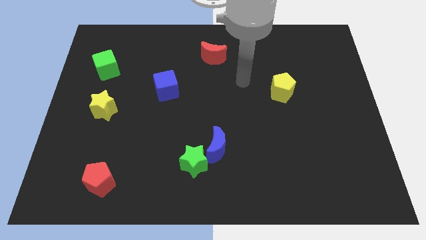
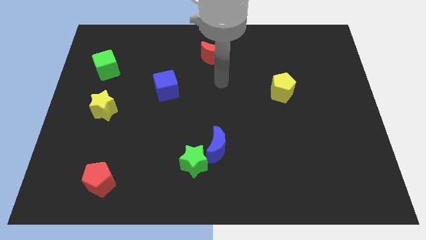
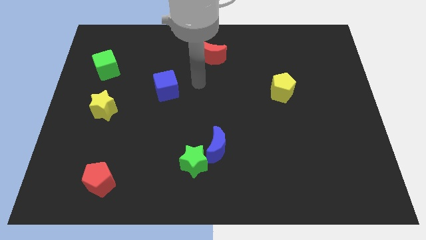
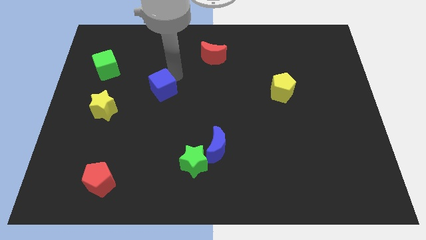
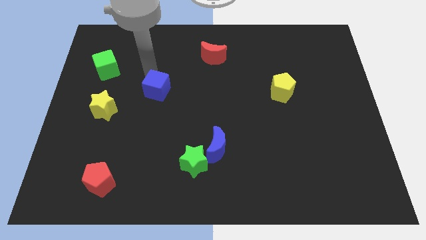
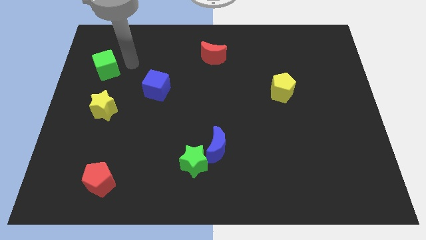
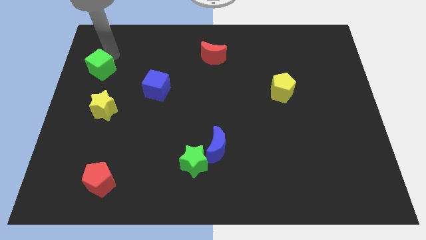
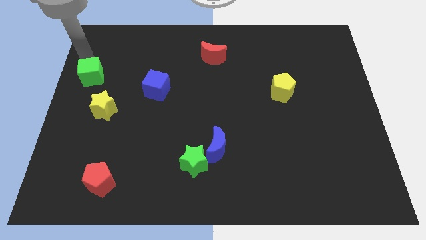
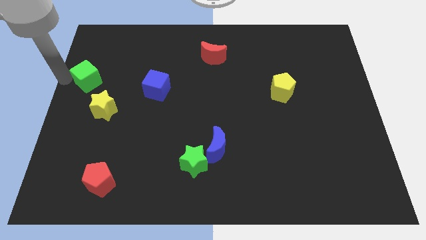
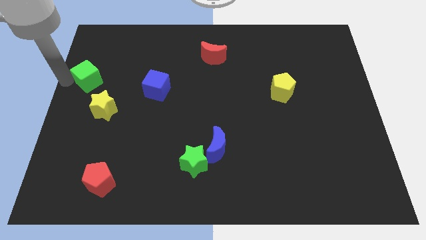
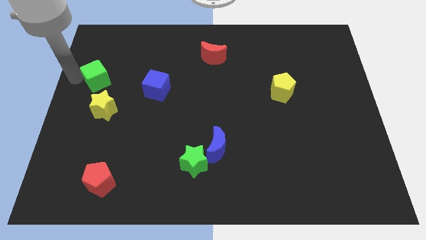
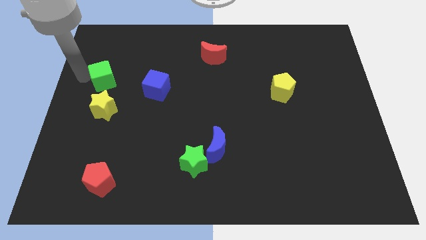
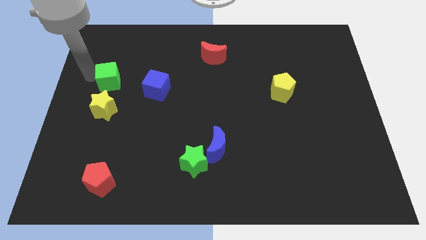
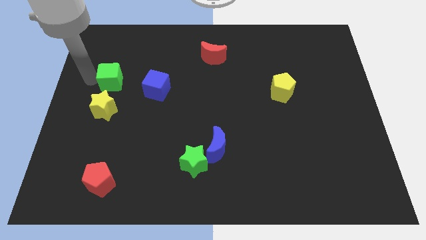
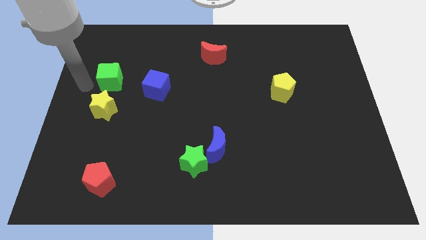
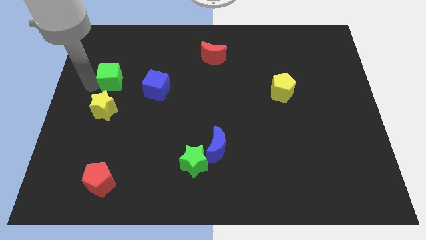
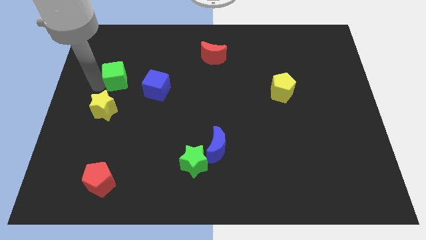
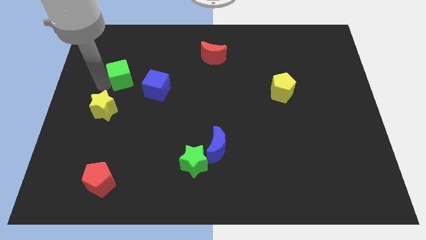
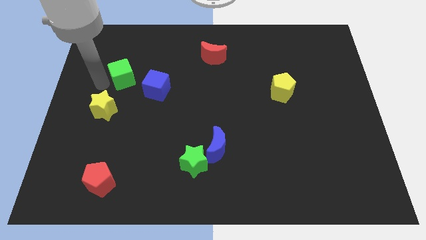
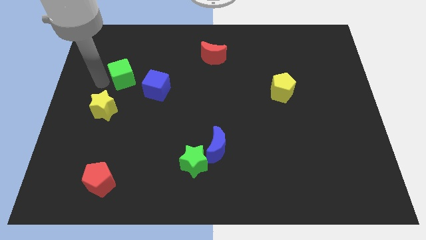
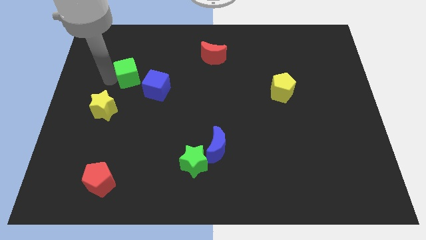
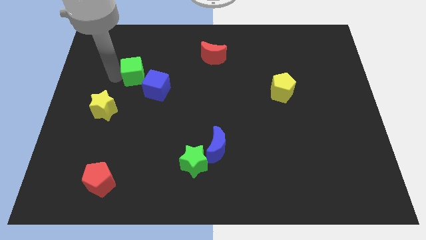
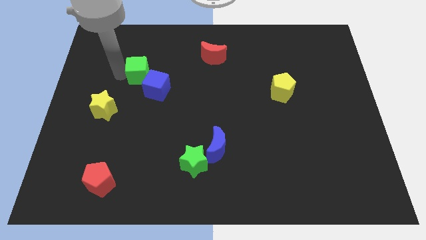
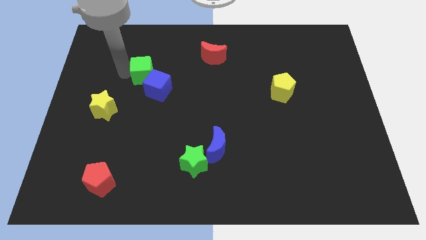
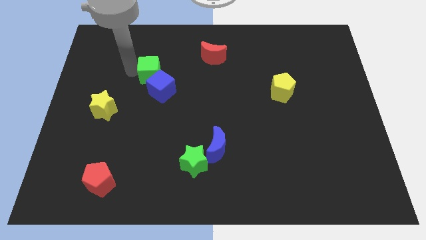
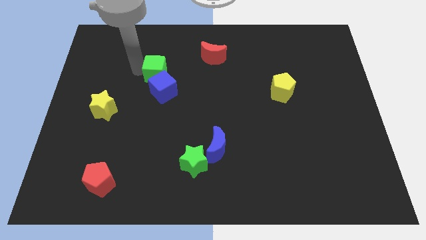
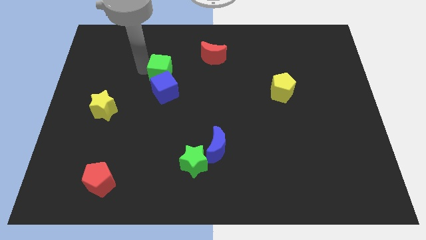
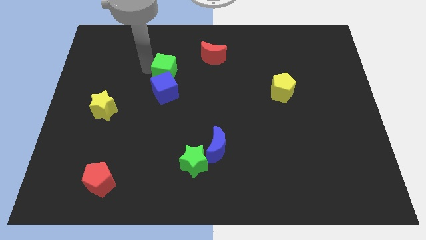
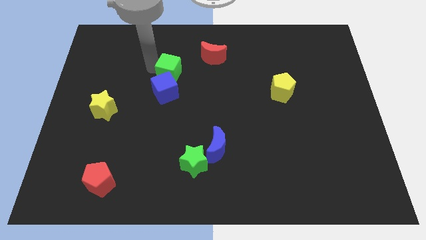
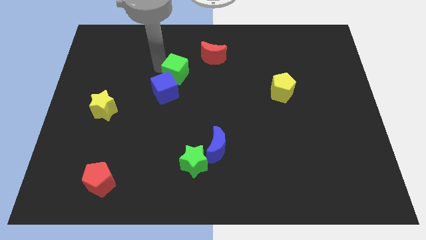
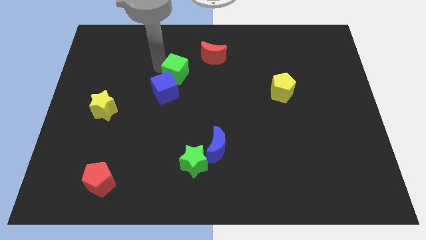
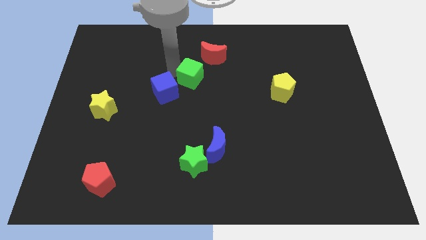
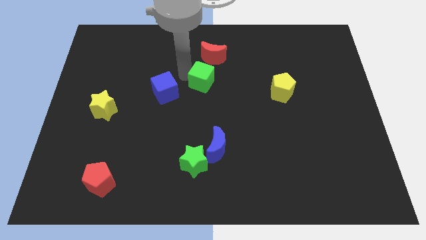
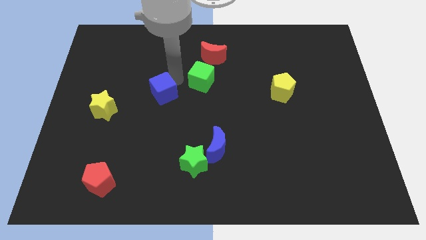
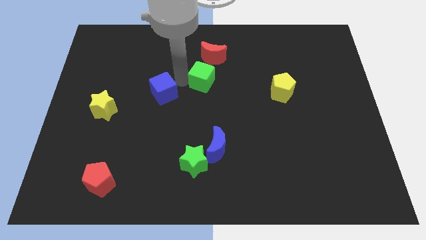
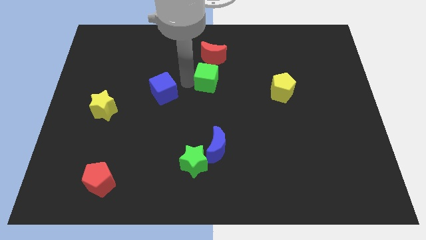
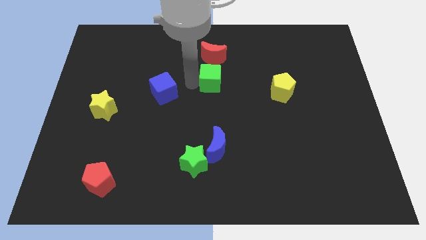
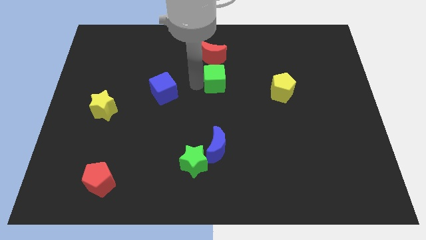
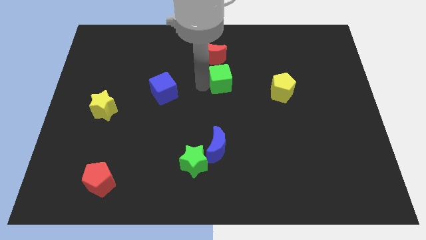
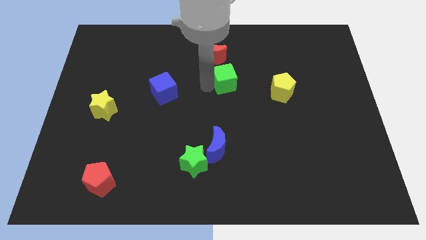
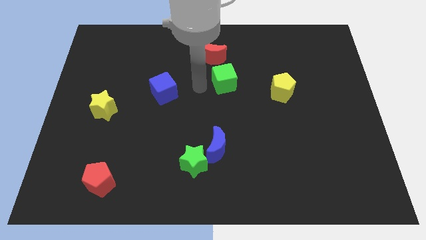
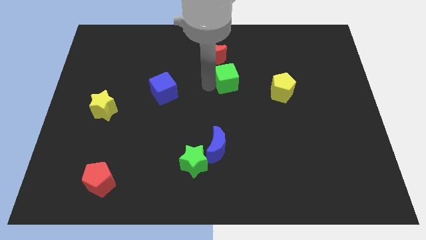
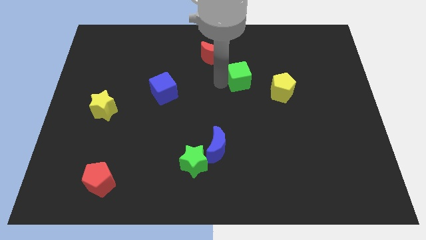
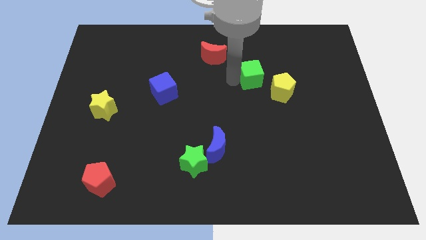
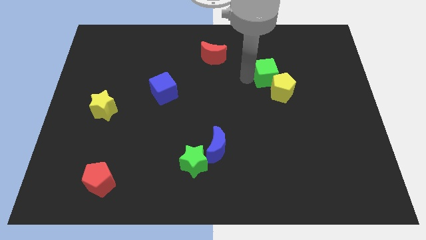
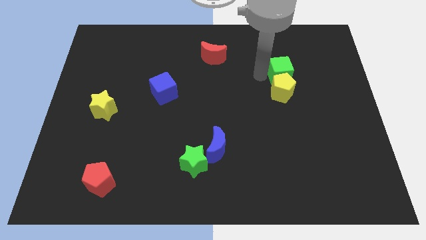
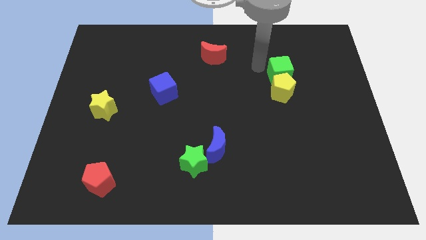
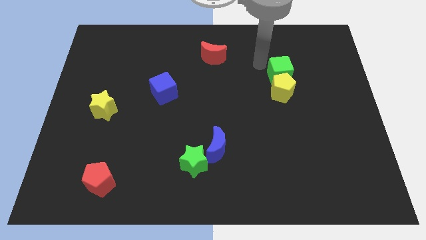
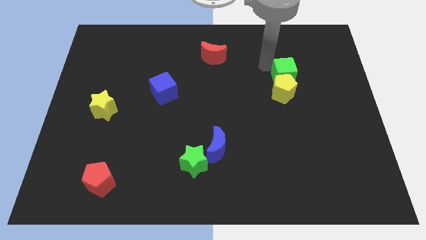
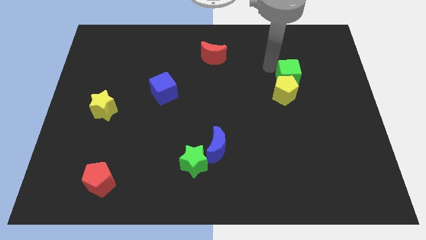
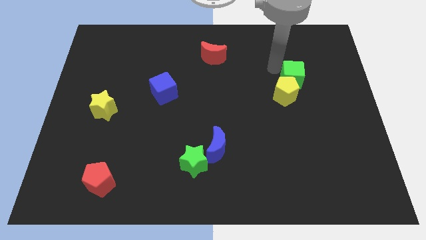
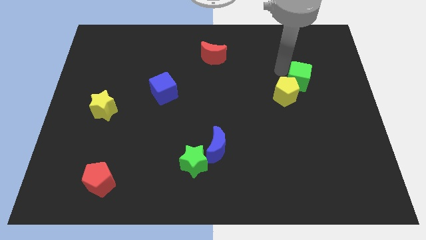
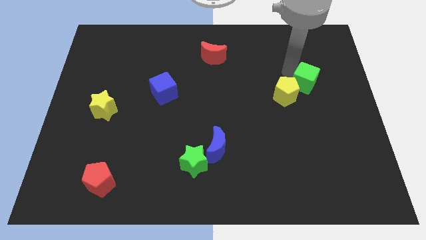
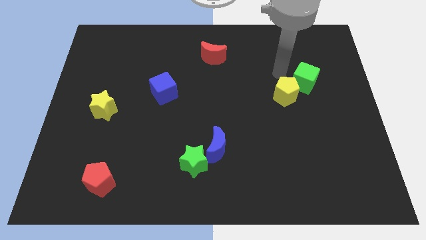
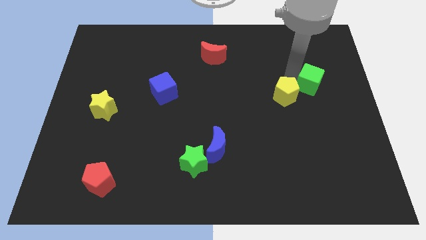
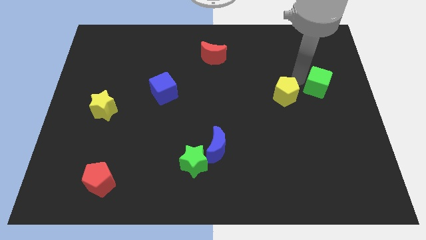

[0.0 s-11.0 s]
put the green cube to the right side

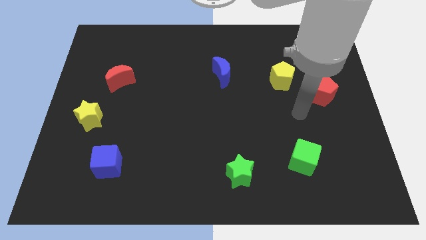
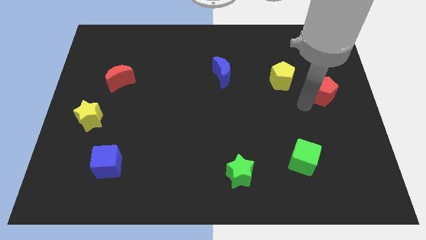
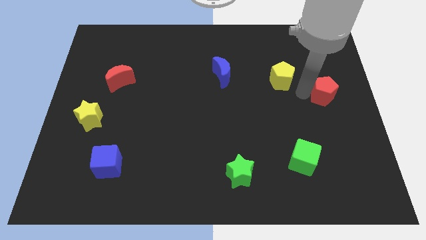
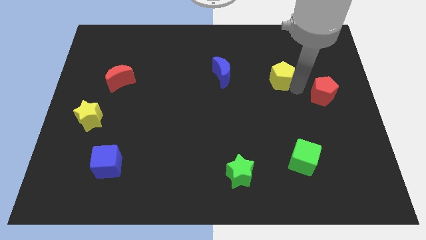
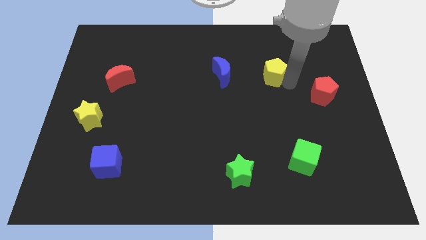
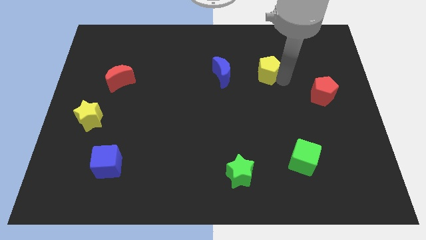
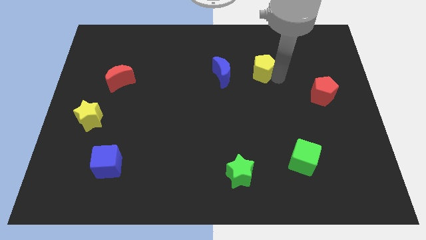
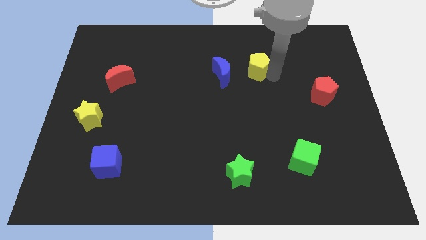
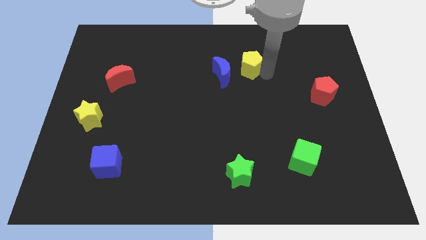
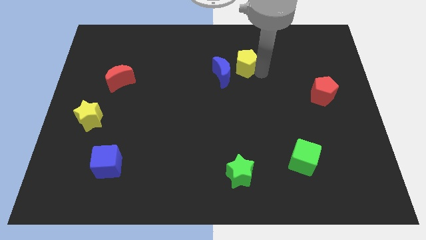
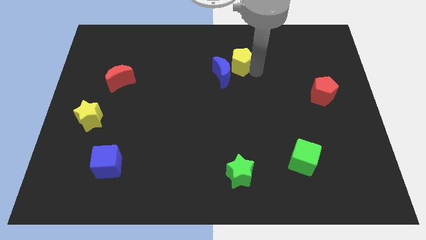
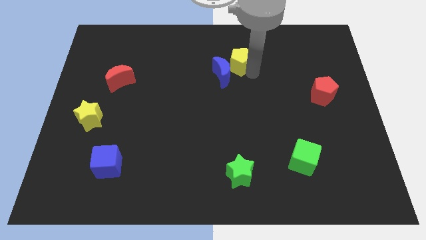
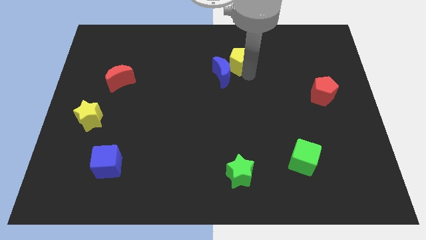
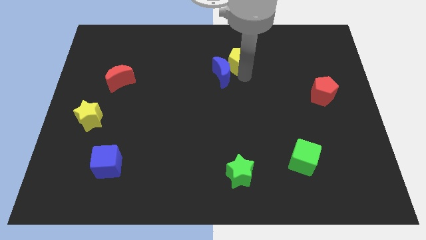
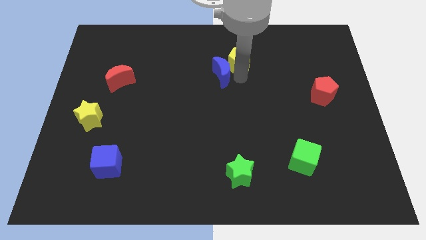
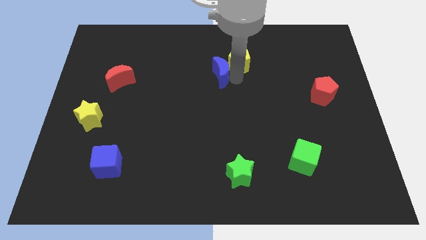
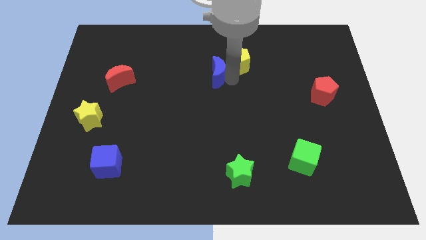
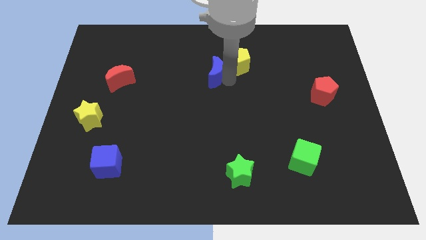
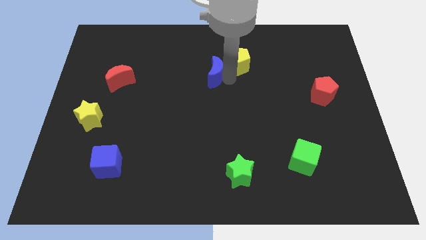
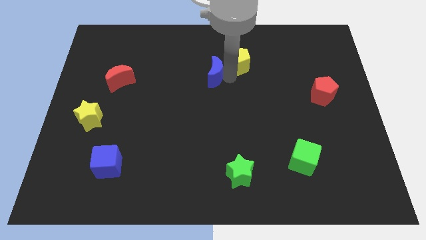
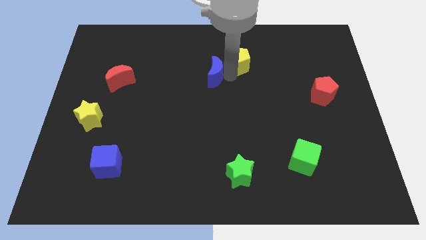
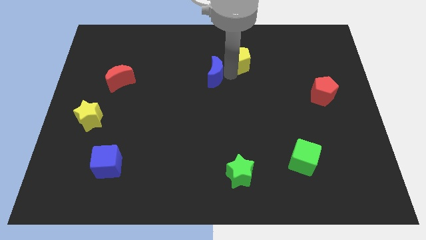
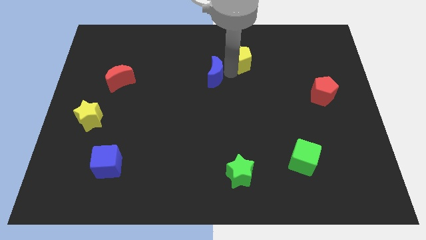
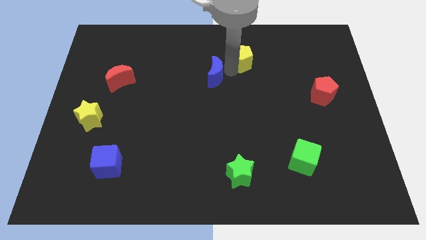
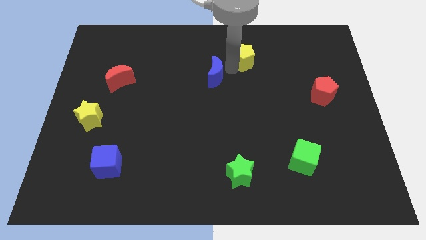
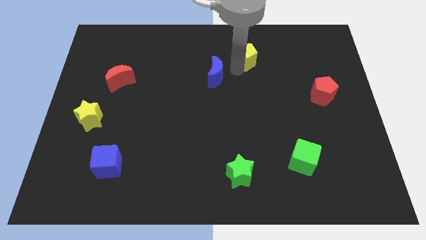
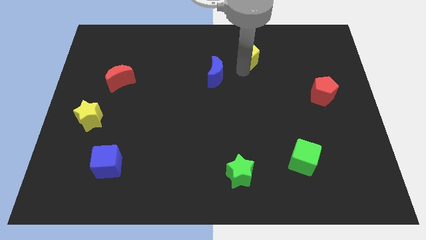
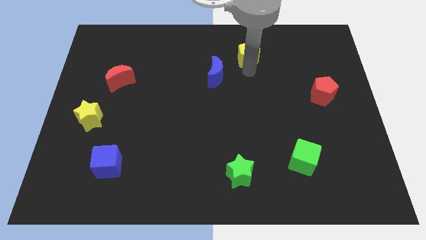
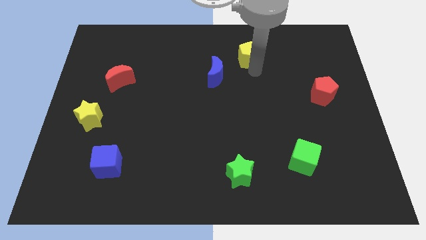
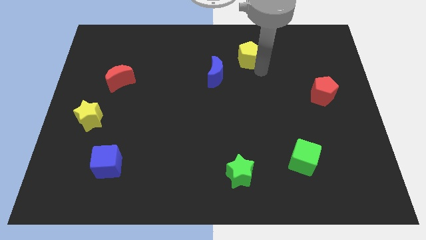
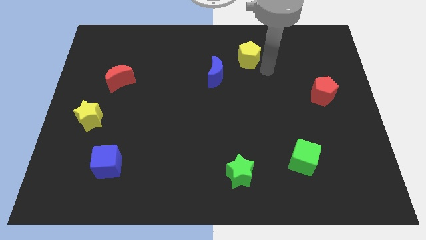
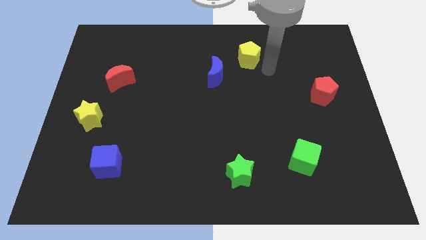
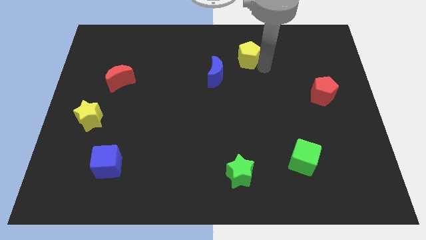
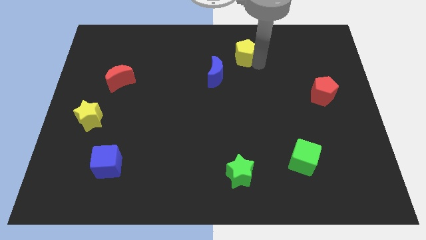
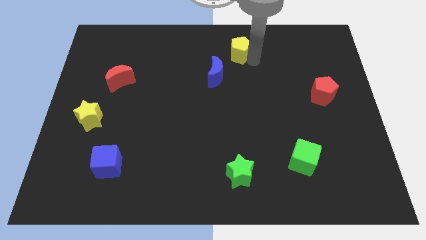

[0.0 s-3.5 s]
put the yellow pentagon to the top
